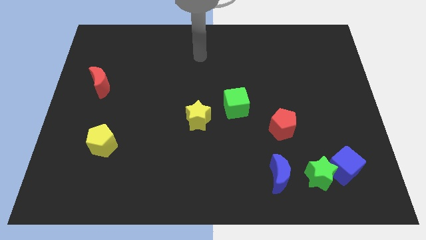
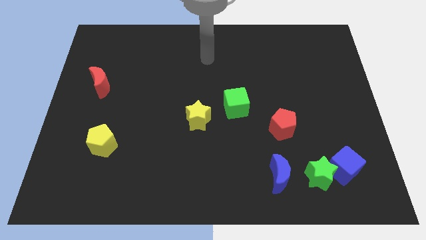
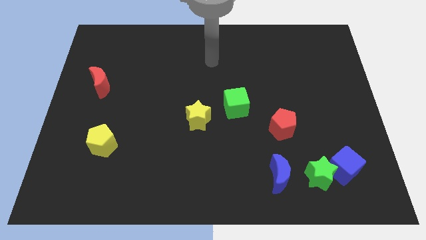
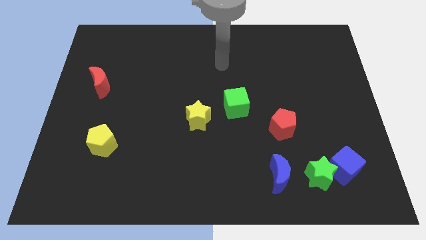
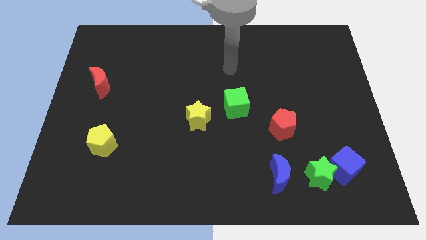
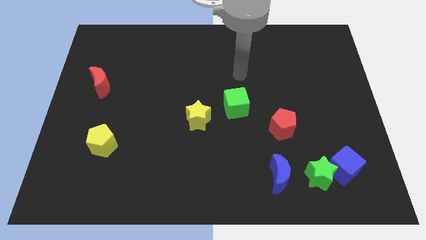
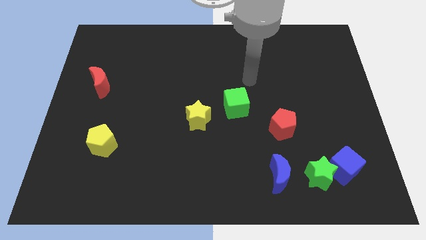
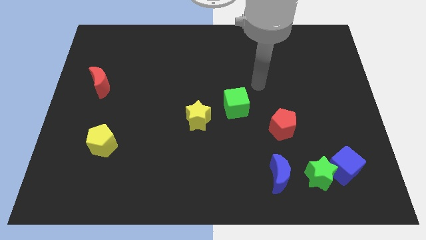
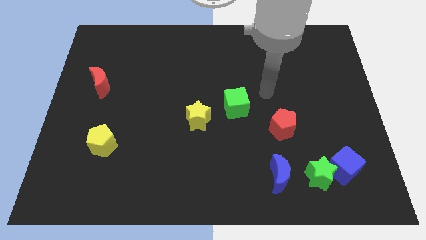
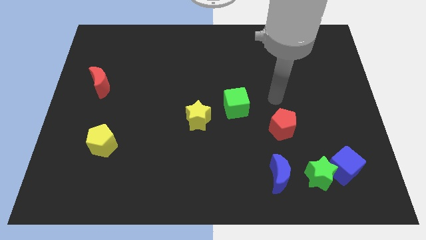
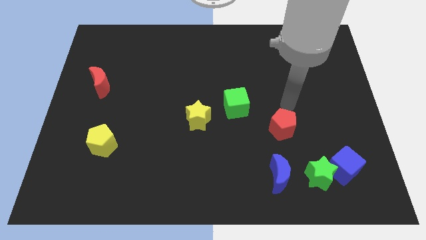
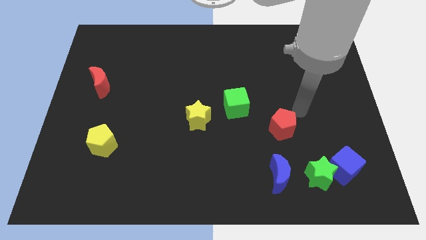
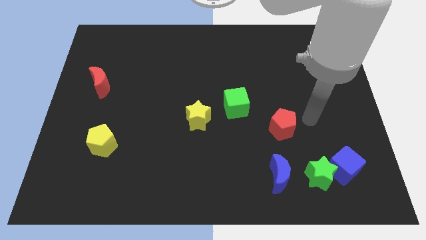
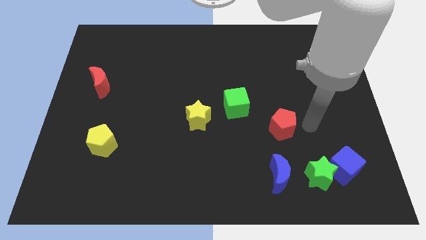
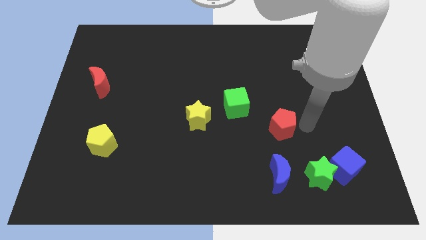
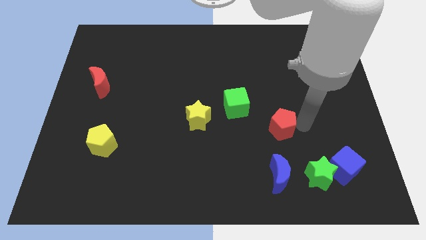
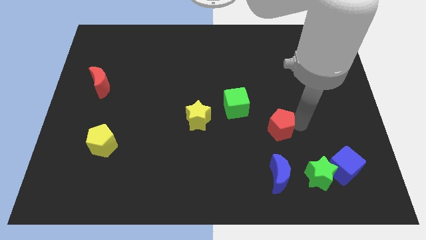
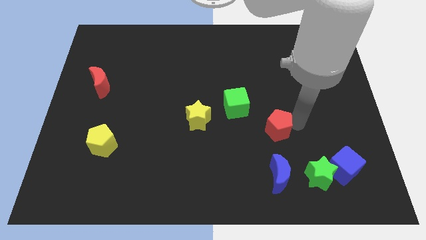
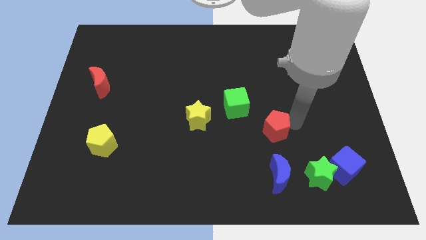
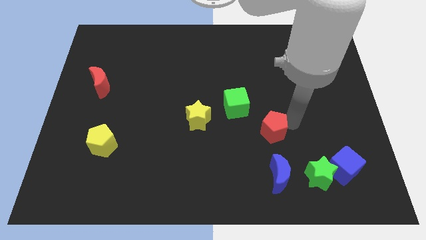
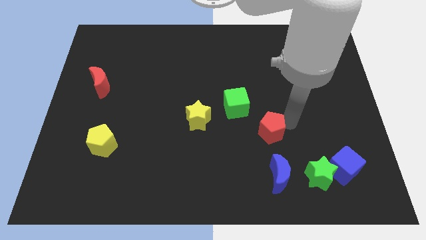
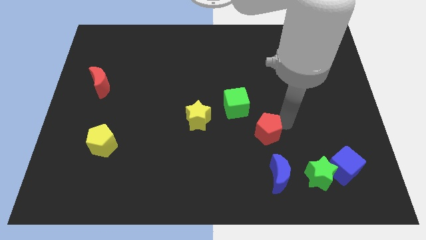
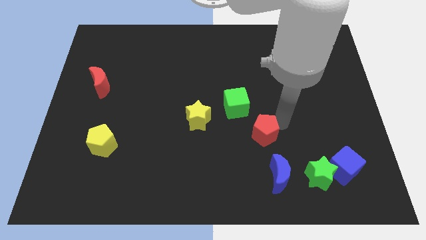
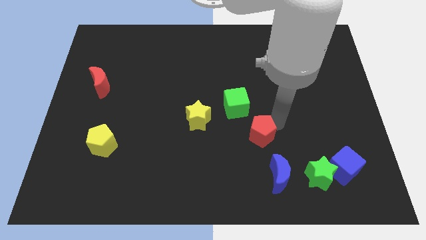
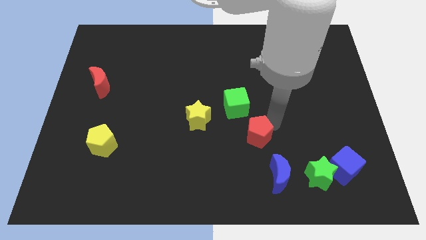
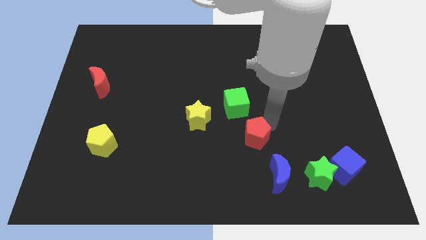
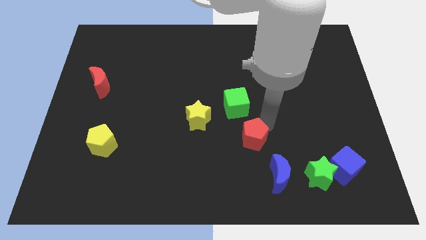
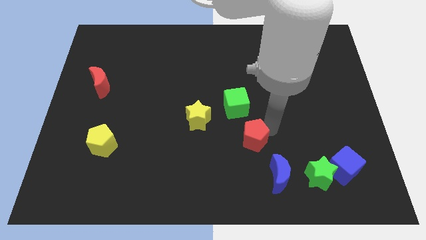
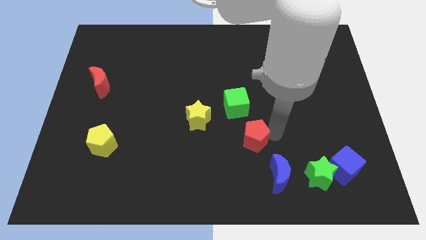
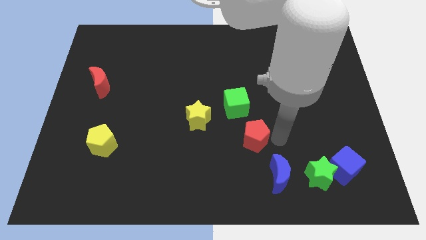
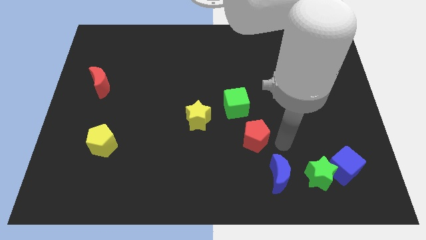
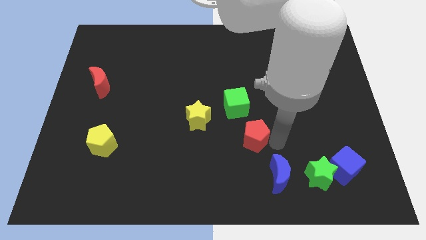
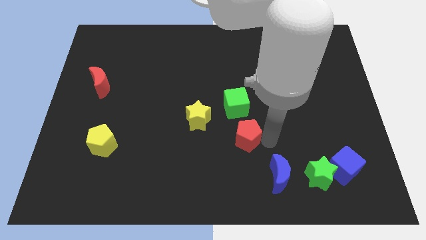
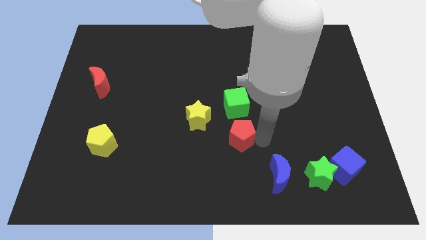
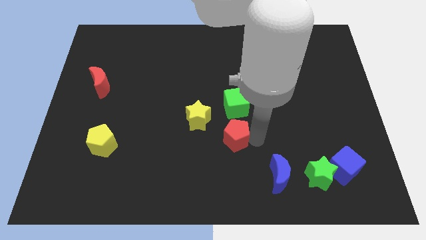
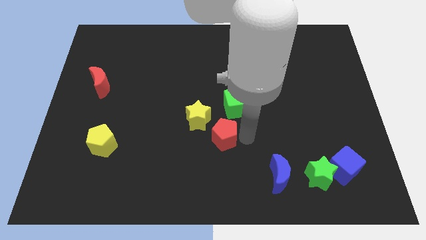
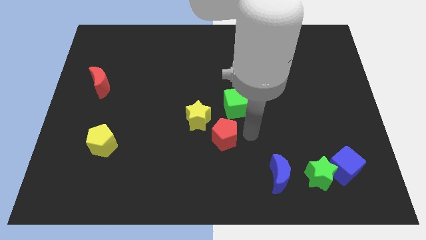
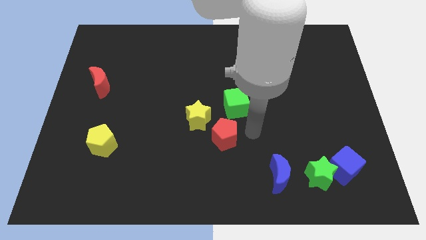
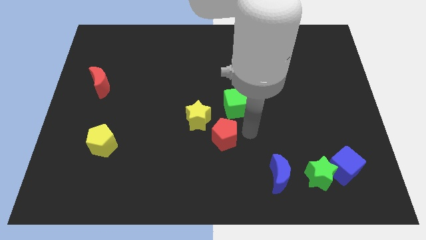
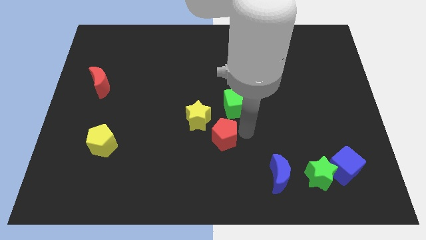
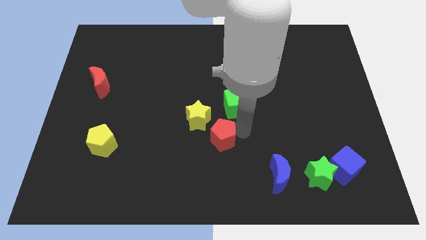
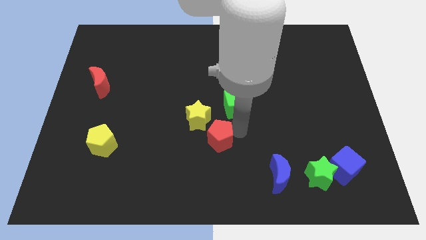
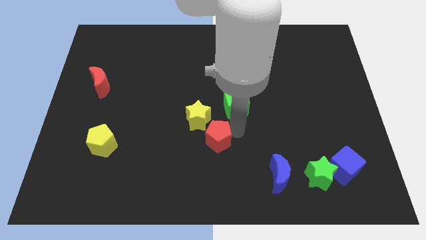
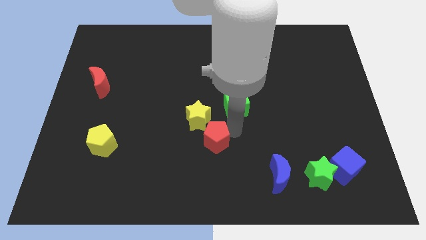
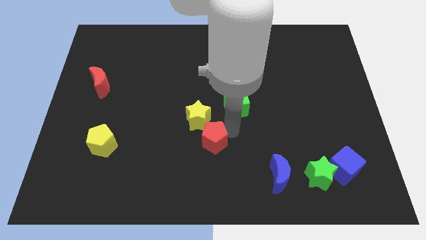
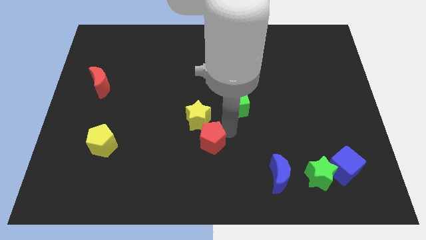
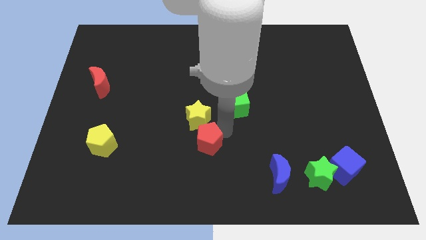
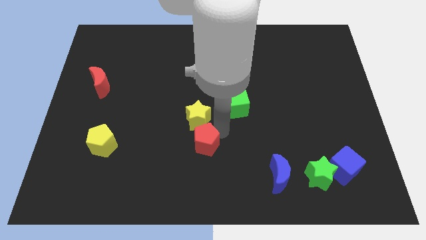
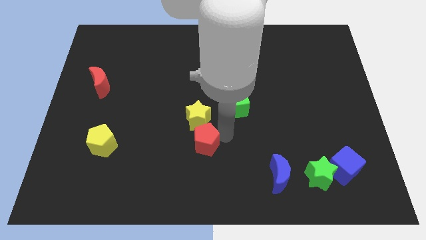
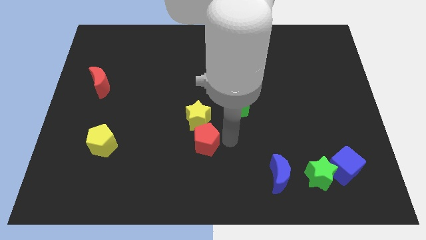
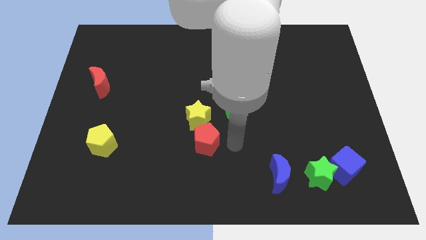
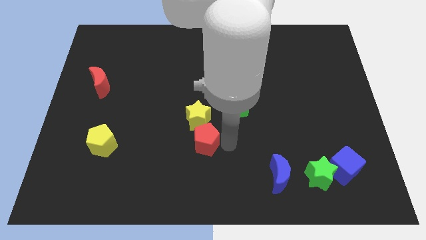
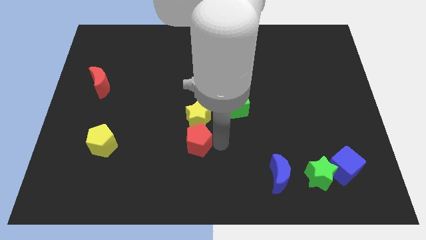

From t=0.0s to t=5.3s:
put the red pentagon to the bottom left of the yellow star

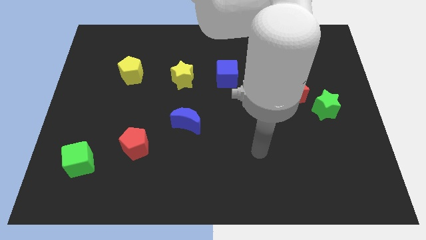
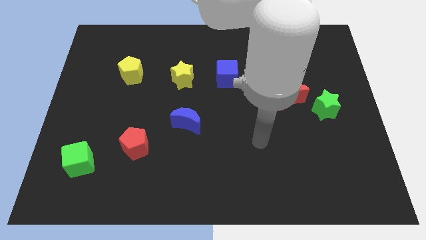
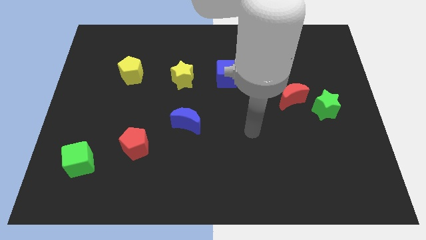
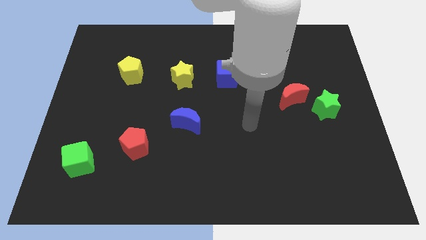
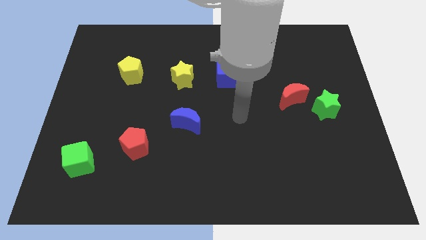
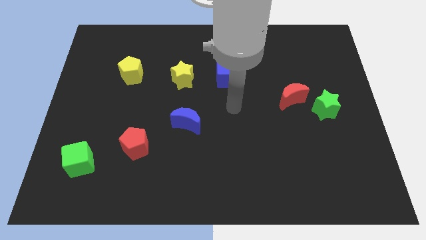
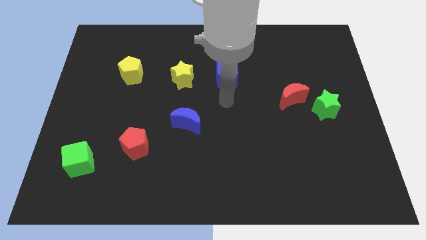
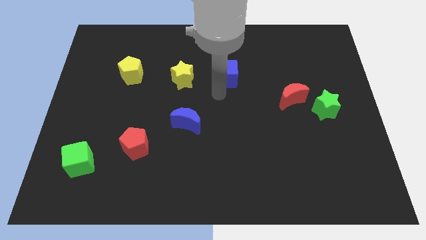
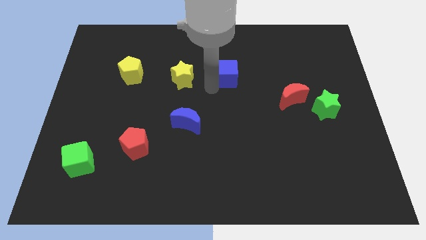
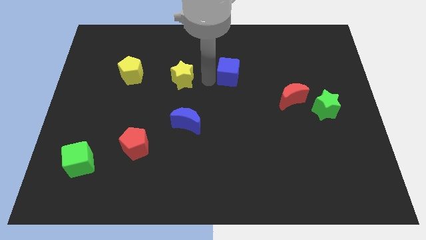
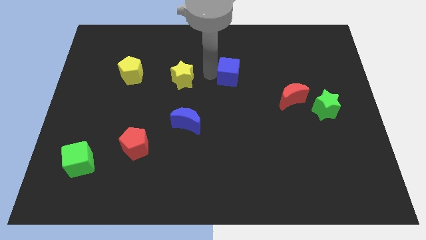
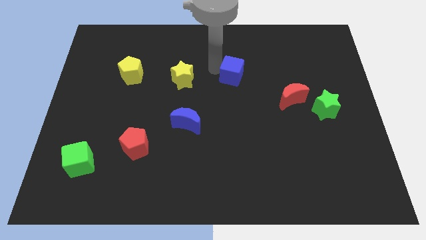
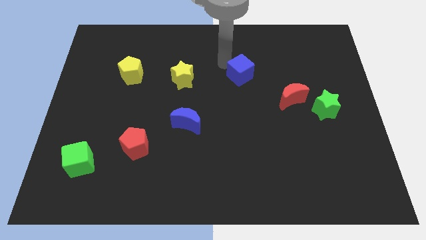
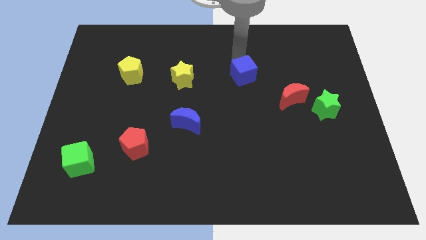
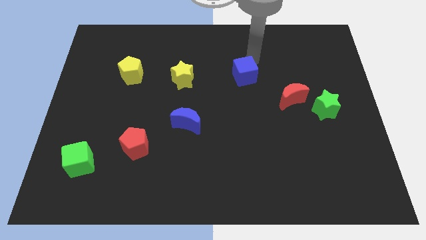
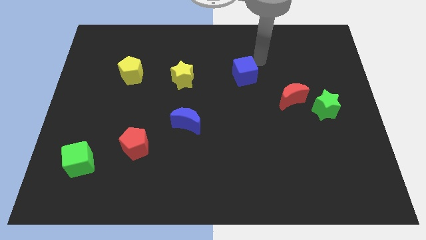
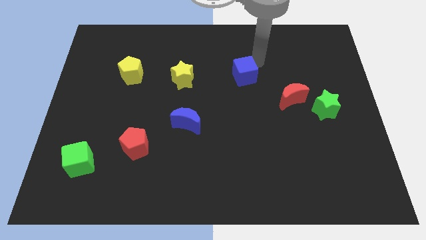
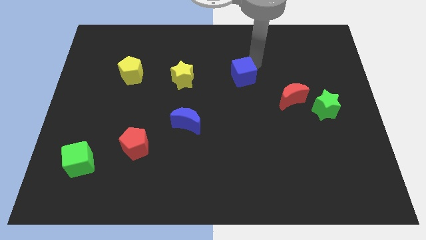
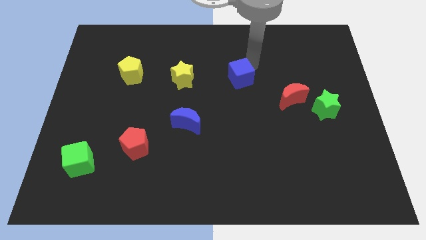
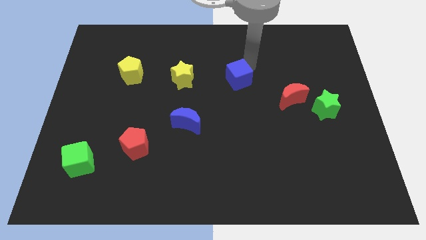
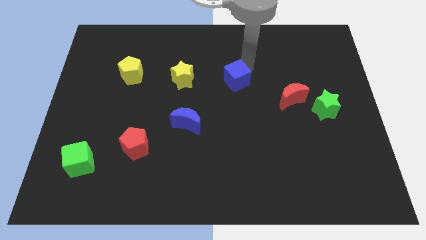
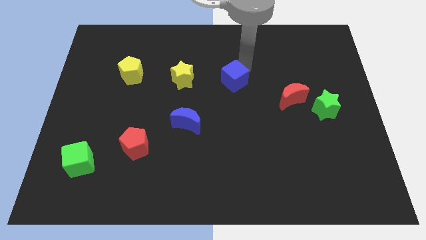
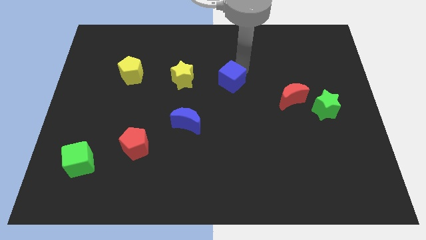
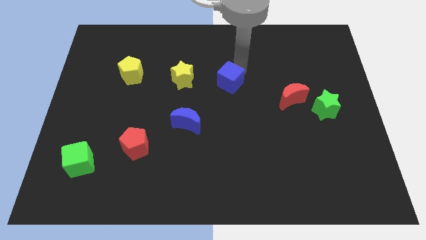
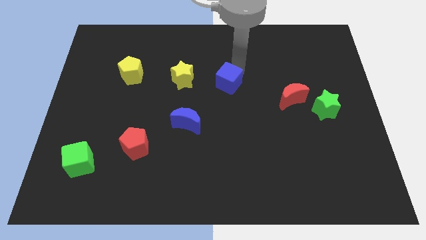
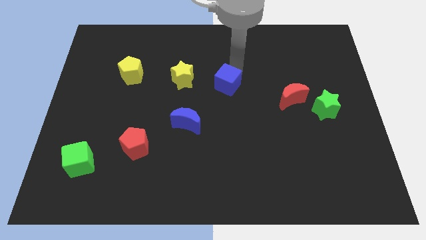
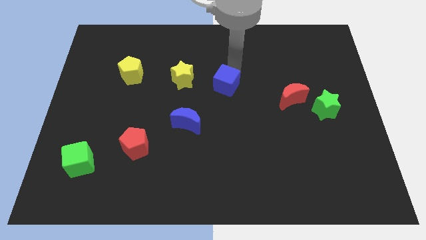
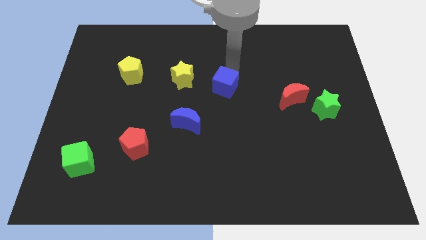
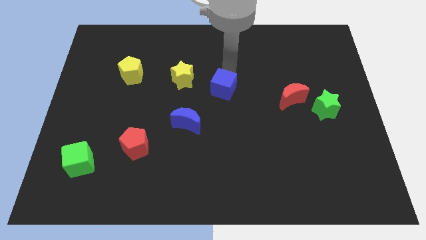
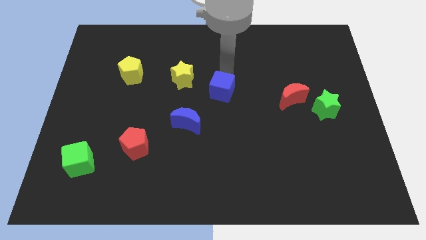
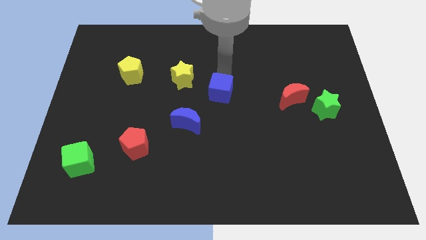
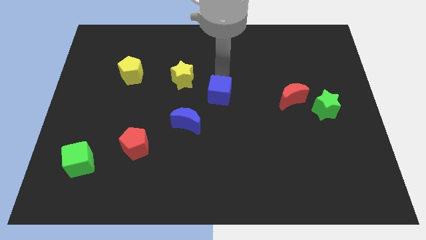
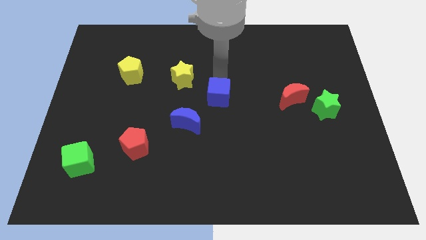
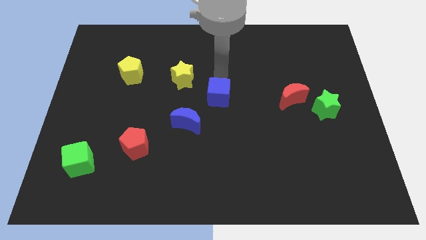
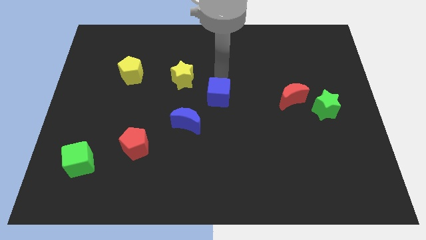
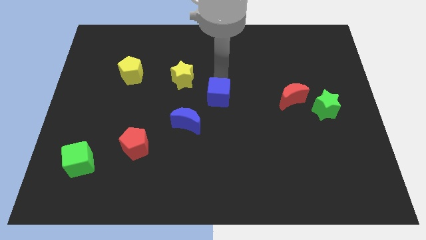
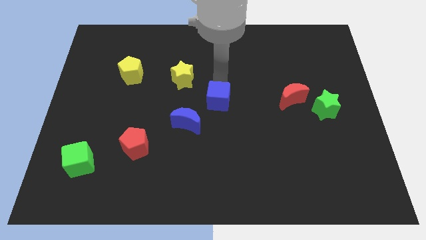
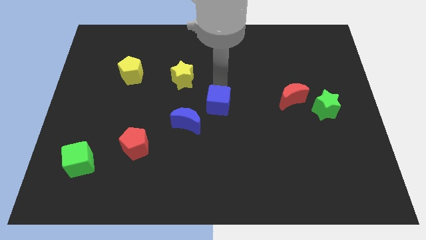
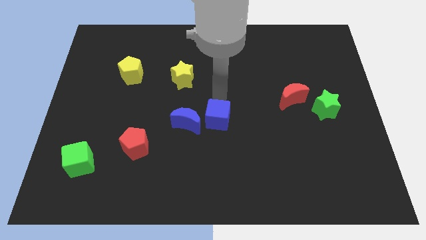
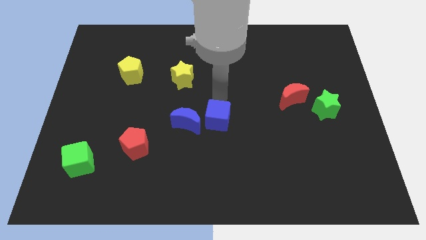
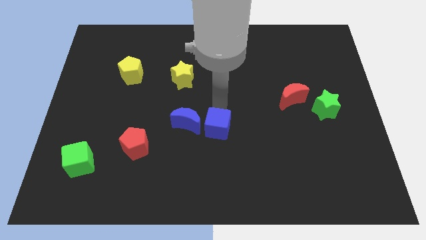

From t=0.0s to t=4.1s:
move the blue cube to the bottom right side of the blue moon
